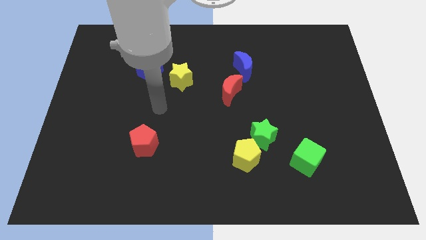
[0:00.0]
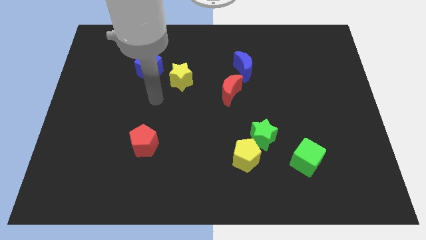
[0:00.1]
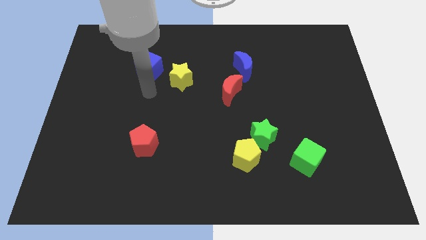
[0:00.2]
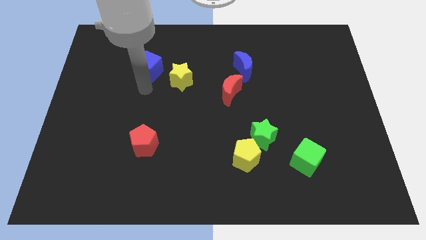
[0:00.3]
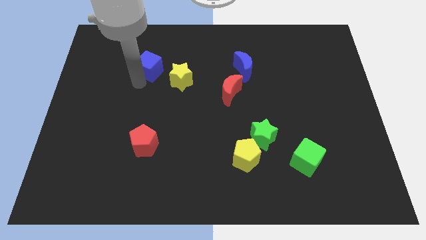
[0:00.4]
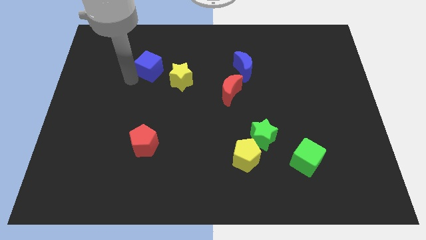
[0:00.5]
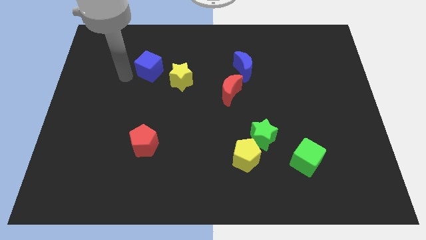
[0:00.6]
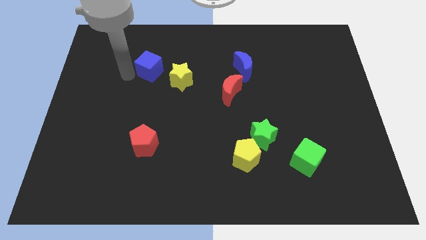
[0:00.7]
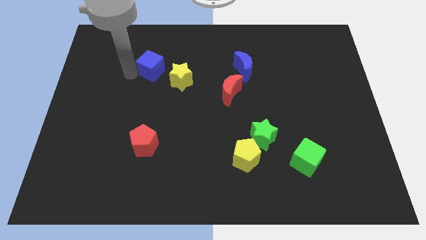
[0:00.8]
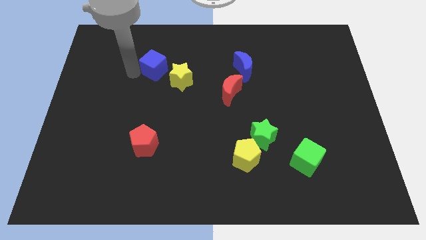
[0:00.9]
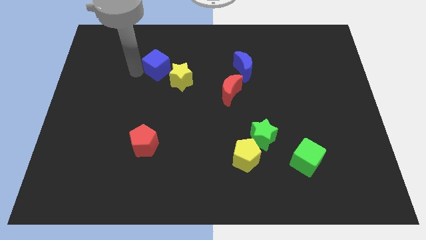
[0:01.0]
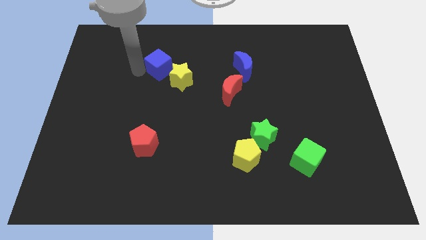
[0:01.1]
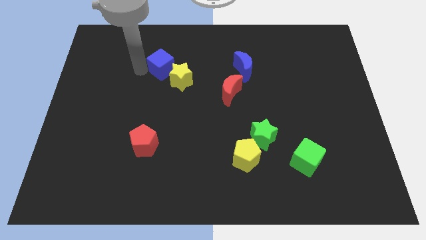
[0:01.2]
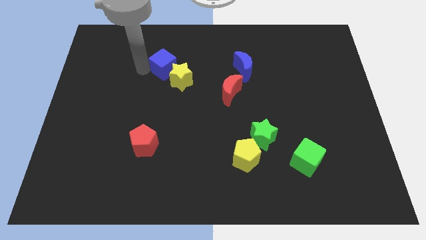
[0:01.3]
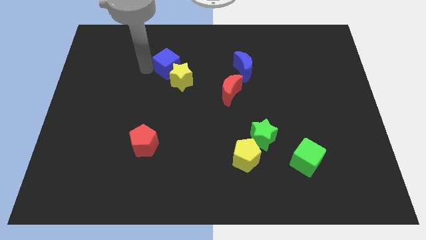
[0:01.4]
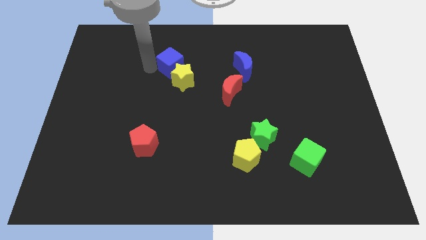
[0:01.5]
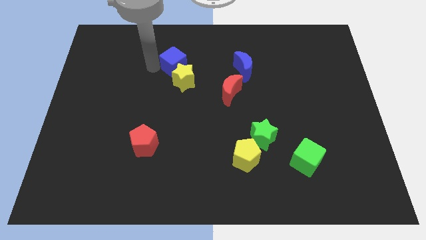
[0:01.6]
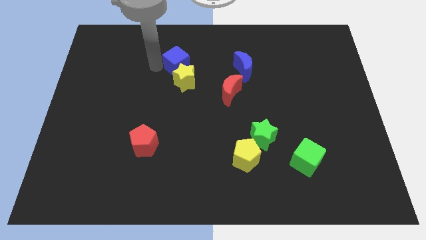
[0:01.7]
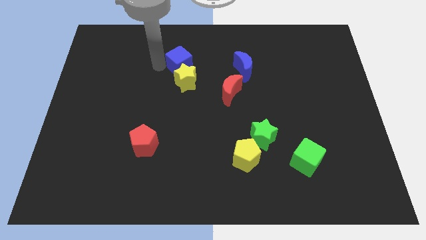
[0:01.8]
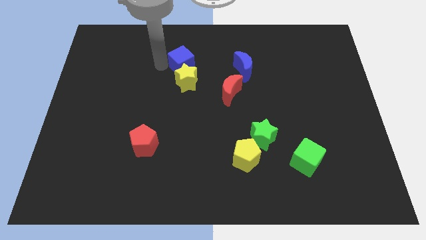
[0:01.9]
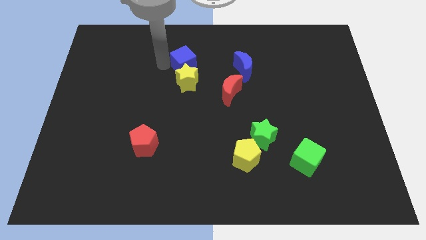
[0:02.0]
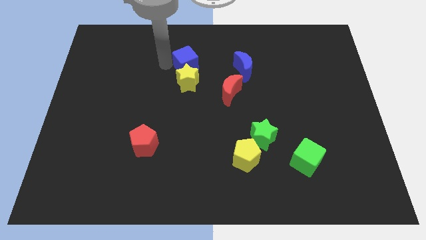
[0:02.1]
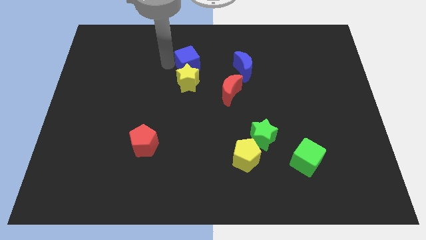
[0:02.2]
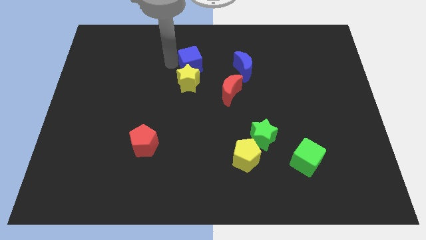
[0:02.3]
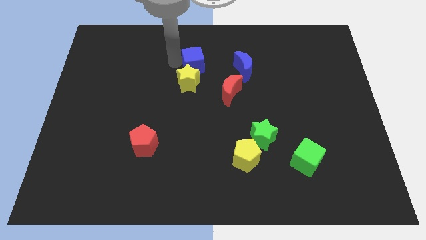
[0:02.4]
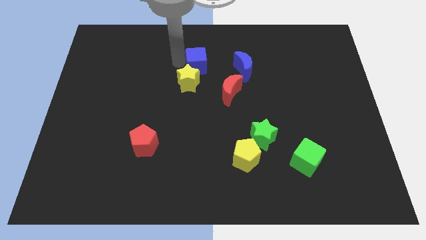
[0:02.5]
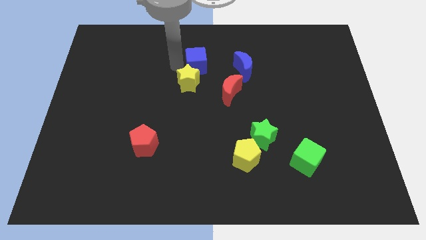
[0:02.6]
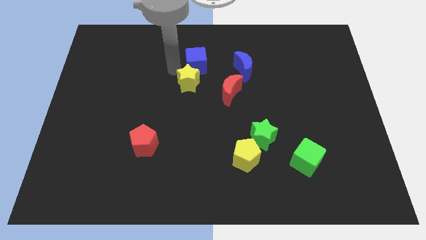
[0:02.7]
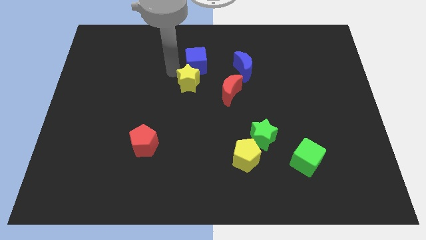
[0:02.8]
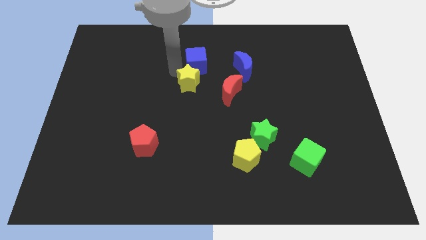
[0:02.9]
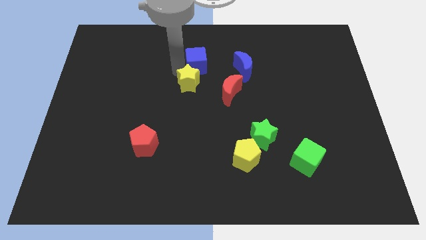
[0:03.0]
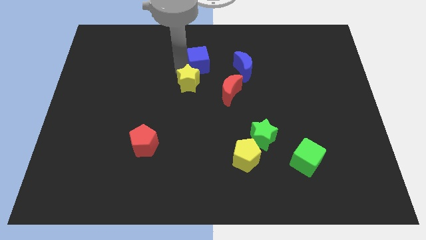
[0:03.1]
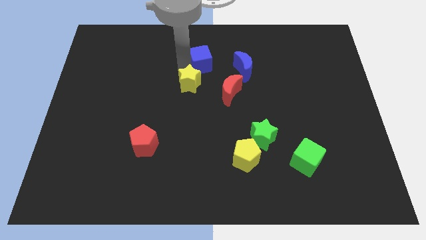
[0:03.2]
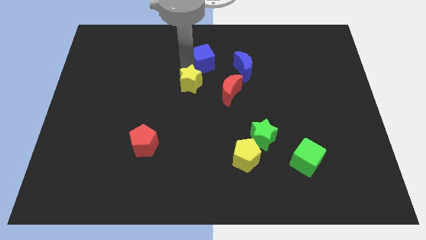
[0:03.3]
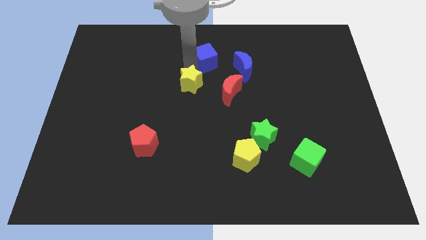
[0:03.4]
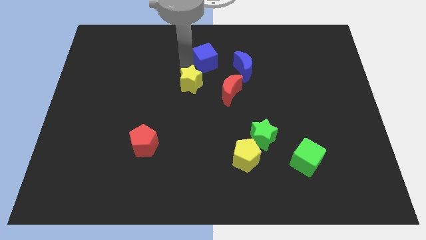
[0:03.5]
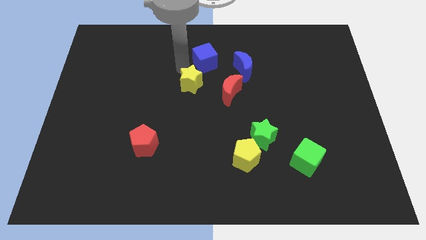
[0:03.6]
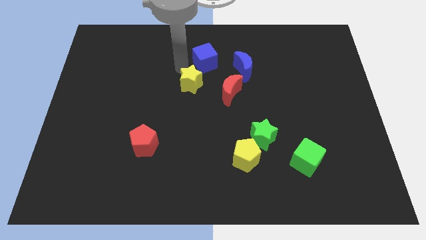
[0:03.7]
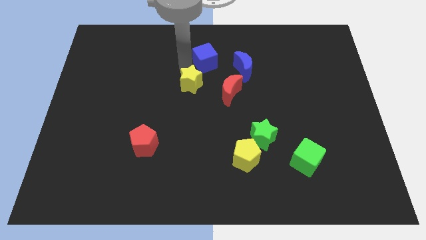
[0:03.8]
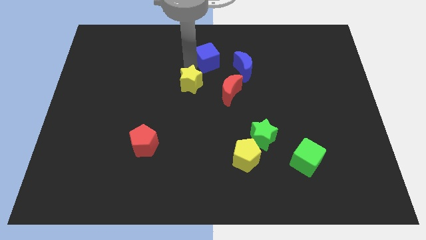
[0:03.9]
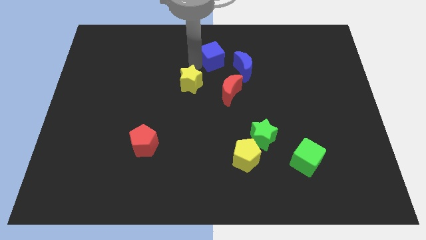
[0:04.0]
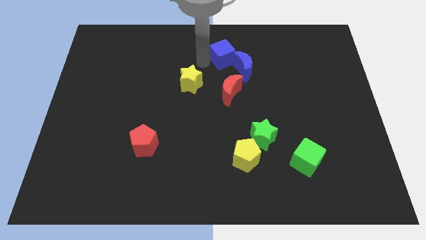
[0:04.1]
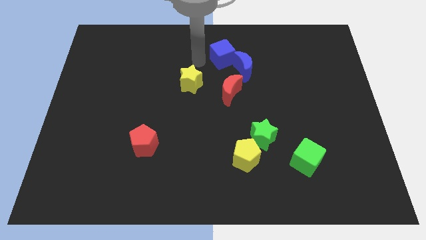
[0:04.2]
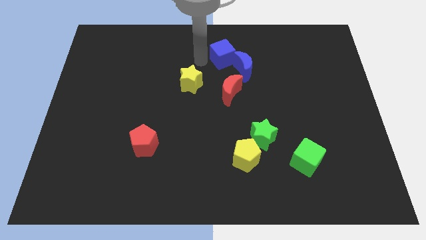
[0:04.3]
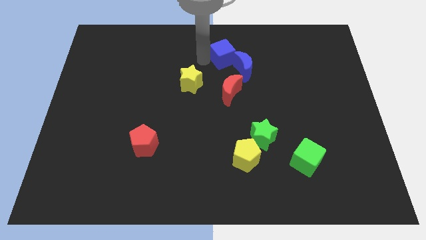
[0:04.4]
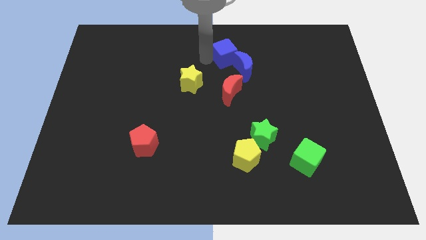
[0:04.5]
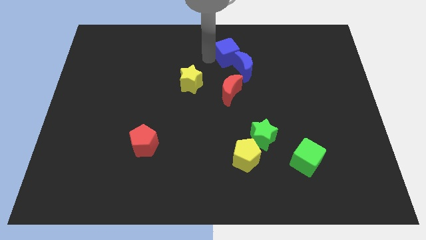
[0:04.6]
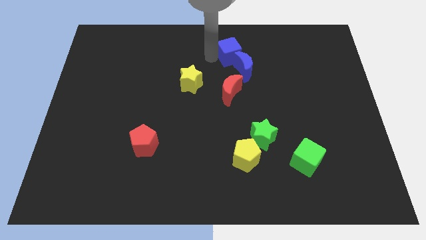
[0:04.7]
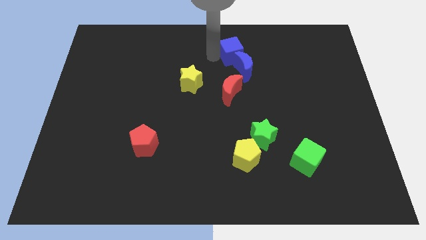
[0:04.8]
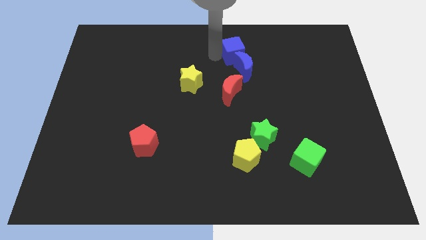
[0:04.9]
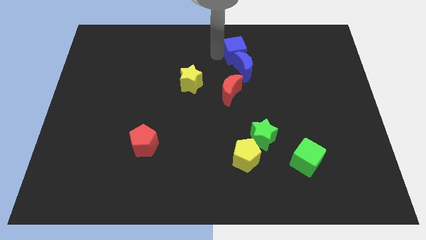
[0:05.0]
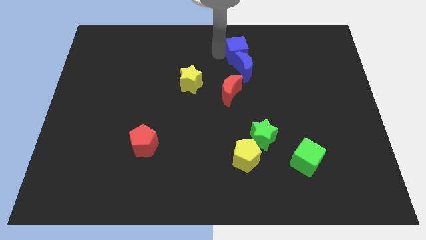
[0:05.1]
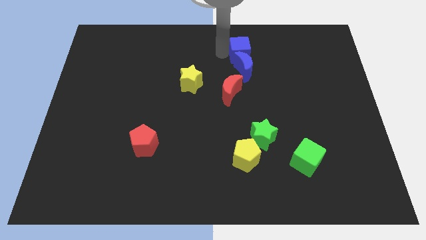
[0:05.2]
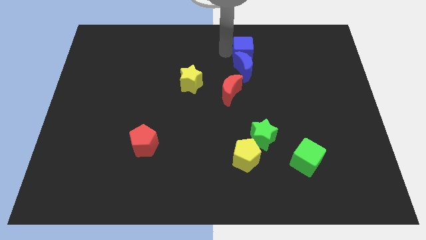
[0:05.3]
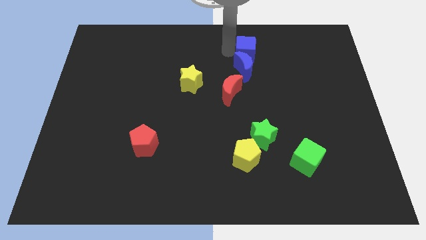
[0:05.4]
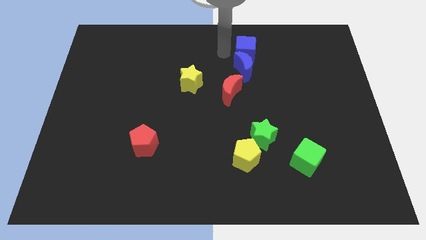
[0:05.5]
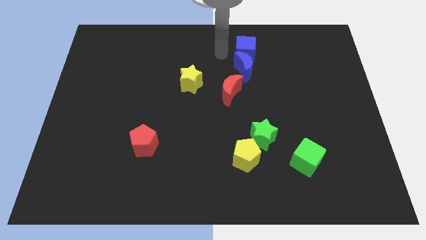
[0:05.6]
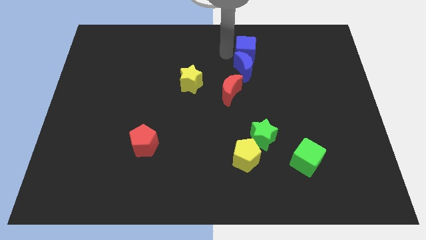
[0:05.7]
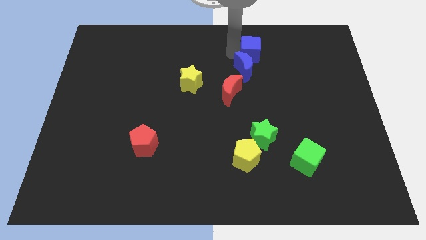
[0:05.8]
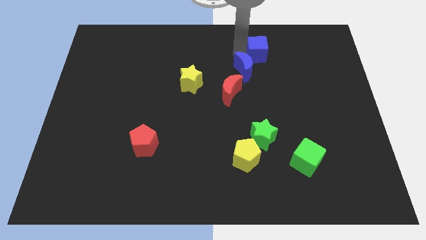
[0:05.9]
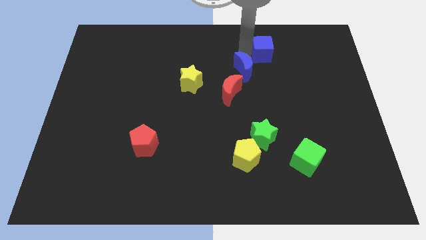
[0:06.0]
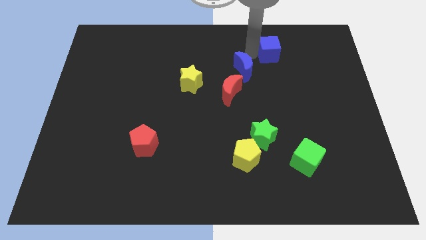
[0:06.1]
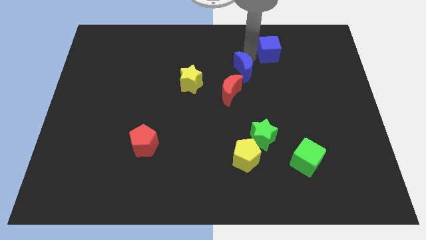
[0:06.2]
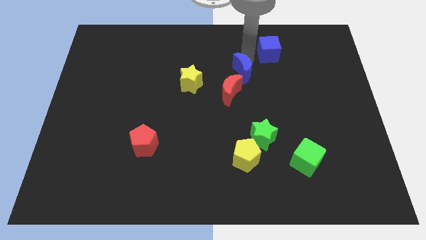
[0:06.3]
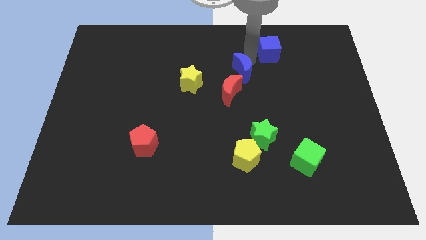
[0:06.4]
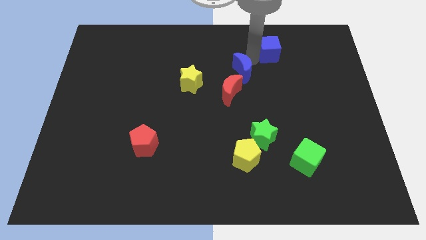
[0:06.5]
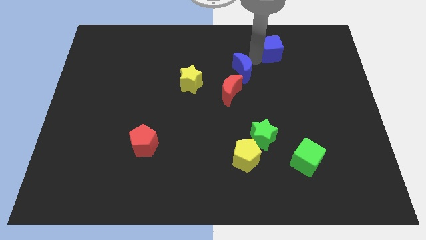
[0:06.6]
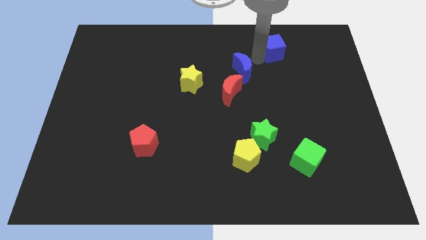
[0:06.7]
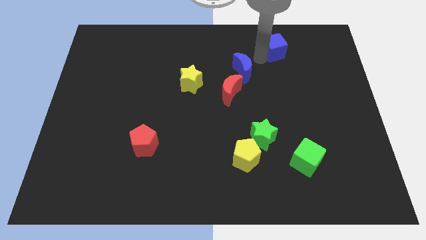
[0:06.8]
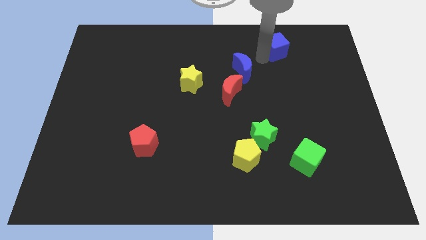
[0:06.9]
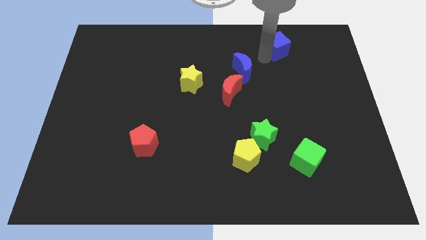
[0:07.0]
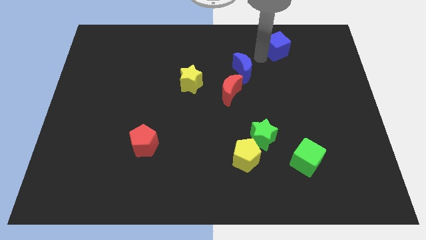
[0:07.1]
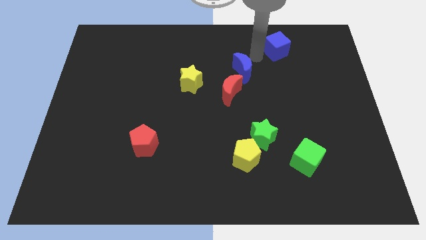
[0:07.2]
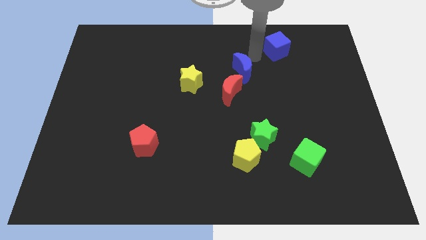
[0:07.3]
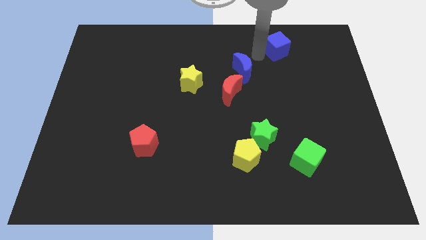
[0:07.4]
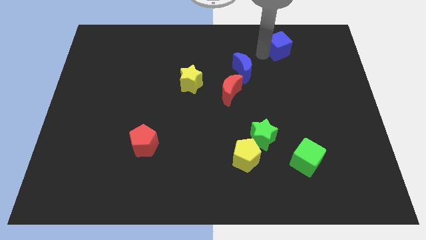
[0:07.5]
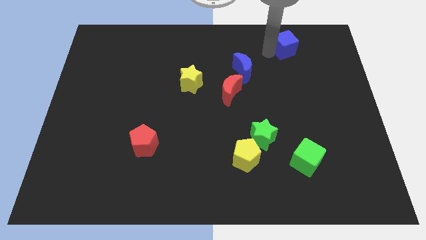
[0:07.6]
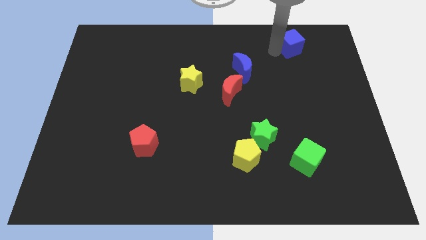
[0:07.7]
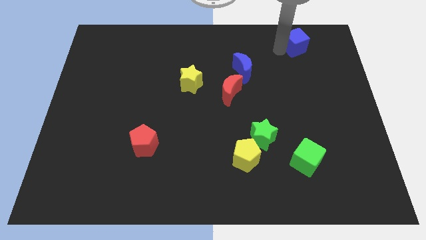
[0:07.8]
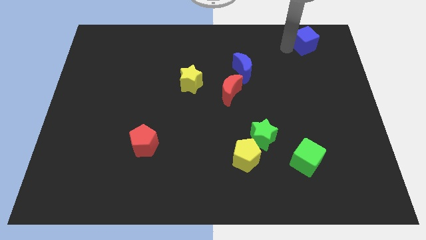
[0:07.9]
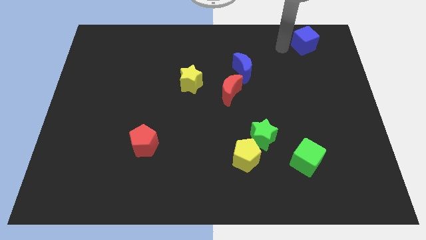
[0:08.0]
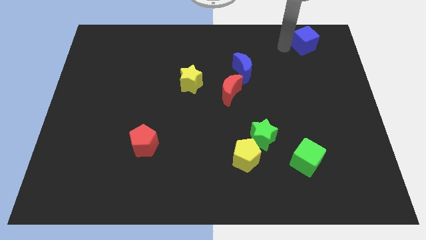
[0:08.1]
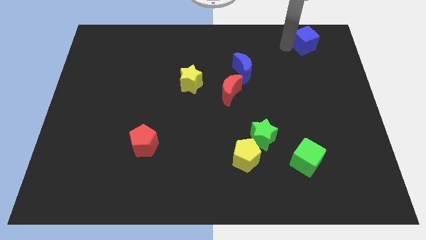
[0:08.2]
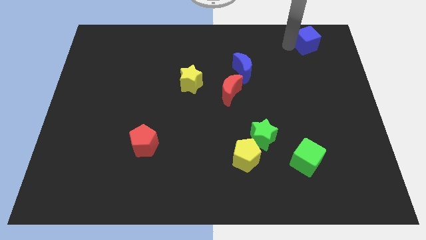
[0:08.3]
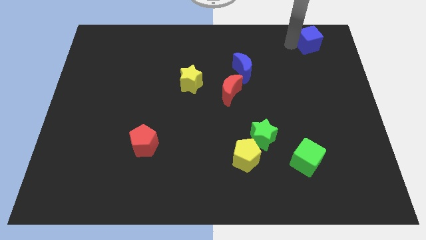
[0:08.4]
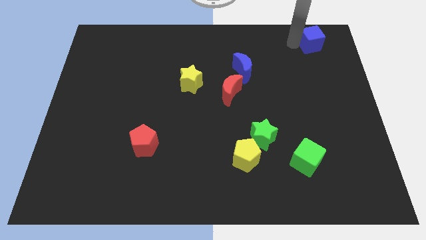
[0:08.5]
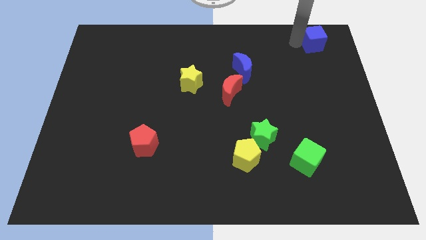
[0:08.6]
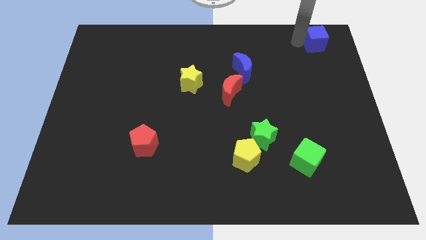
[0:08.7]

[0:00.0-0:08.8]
put the blue cube to the top right
